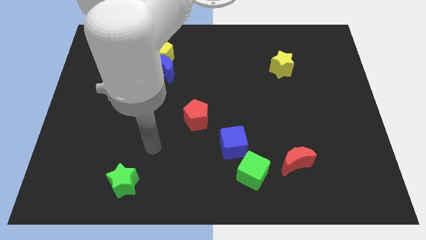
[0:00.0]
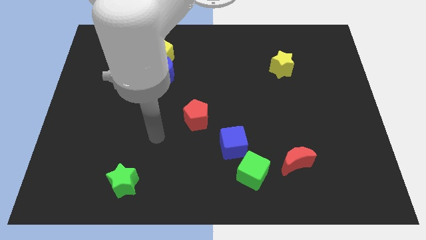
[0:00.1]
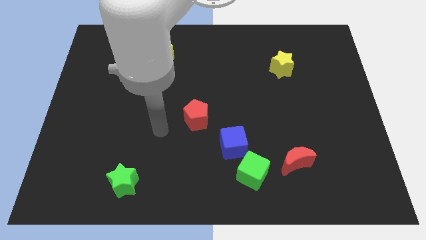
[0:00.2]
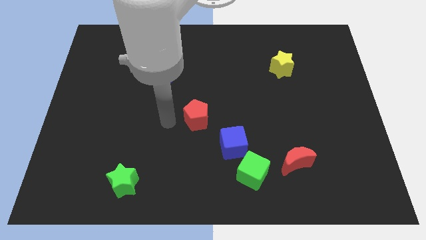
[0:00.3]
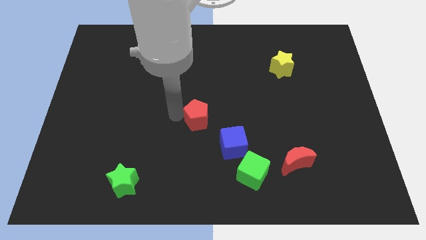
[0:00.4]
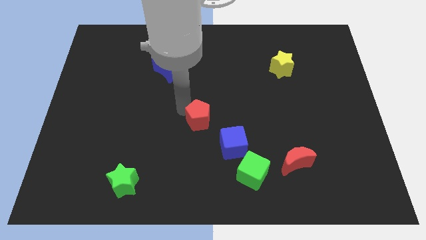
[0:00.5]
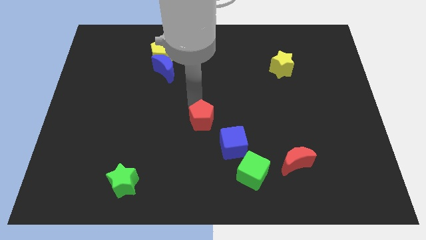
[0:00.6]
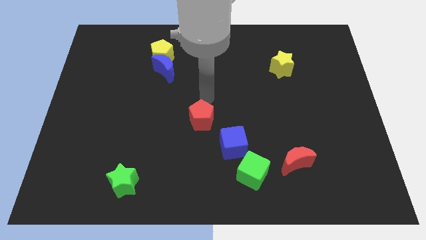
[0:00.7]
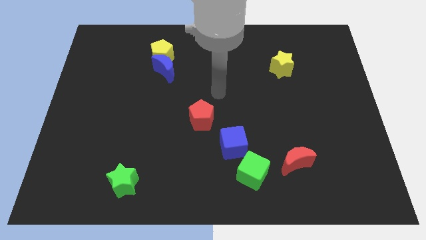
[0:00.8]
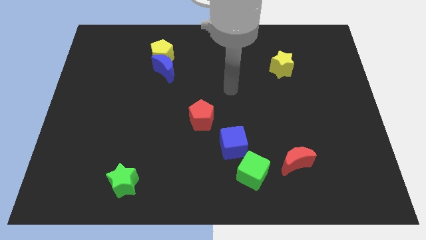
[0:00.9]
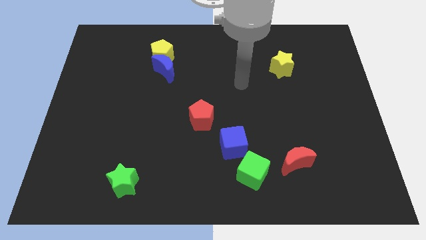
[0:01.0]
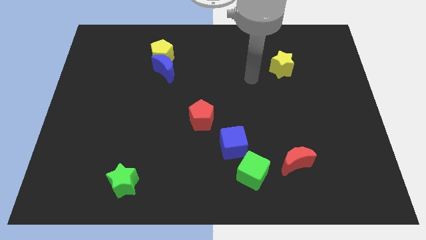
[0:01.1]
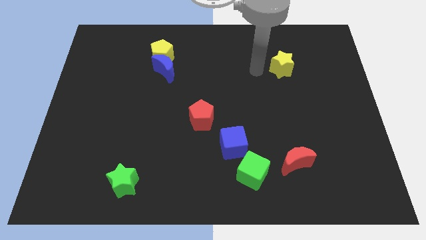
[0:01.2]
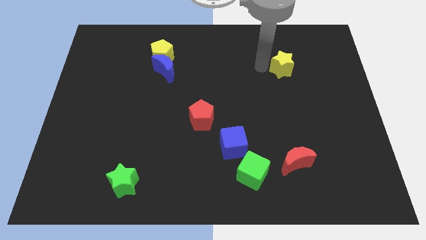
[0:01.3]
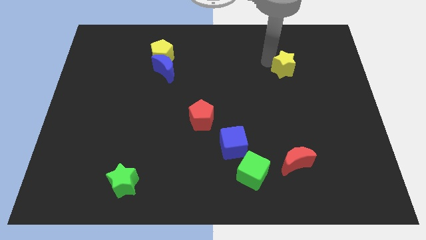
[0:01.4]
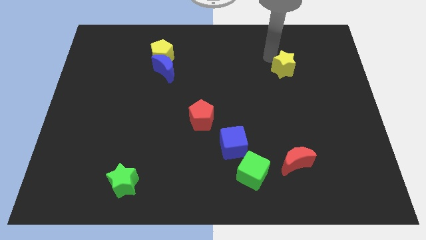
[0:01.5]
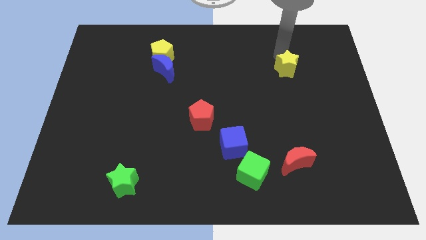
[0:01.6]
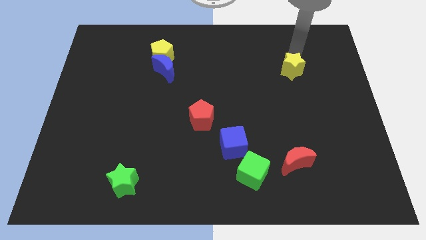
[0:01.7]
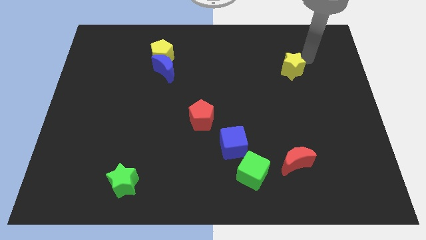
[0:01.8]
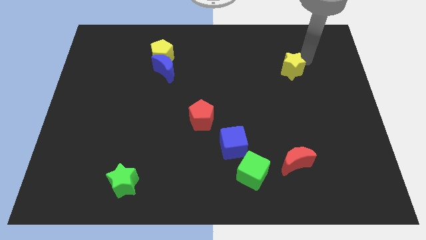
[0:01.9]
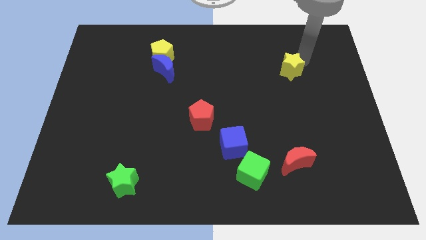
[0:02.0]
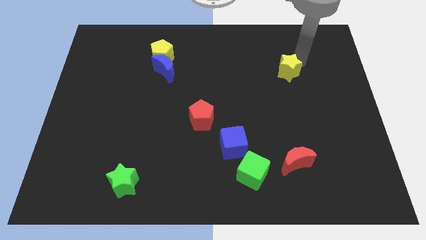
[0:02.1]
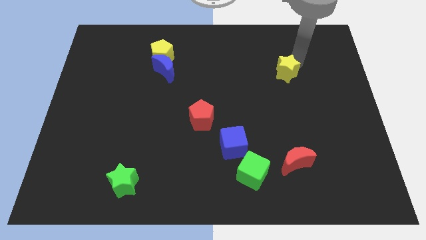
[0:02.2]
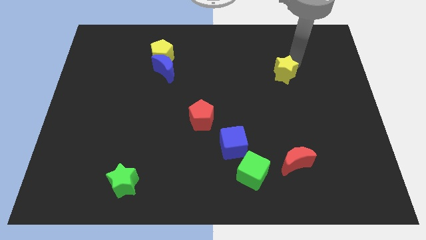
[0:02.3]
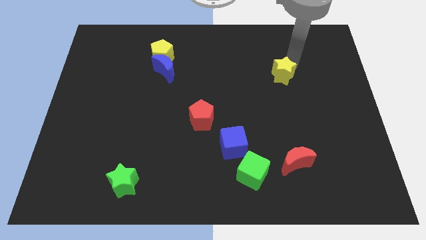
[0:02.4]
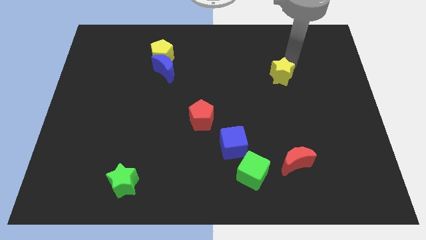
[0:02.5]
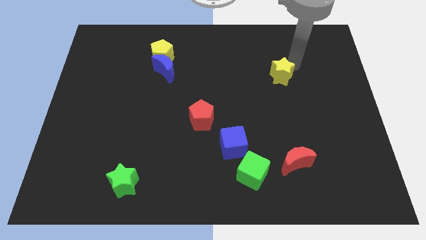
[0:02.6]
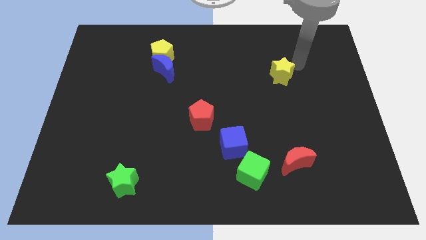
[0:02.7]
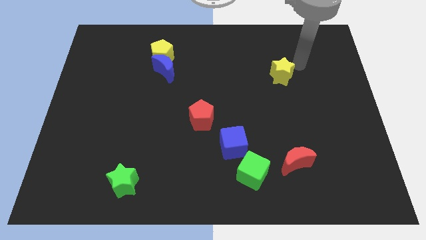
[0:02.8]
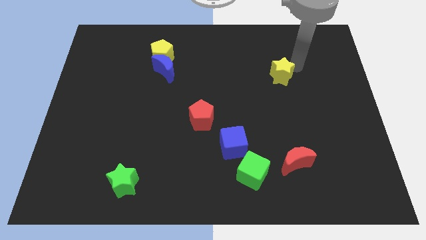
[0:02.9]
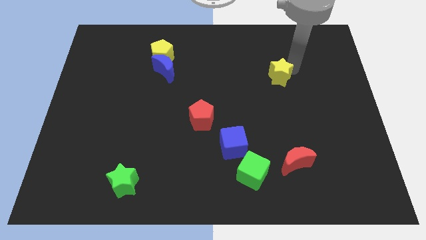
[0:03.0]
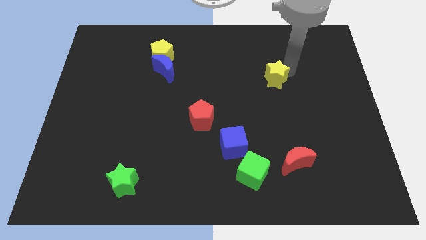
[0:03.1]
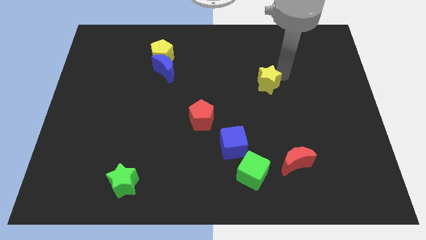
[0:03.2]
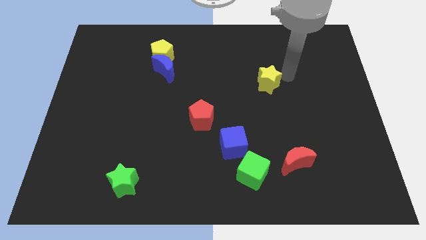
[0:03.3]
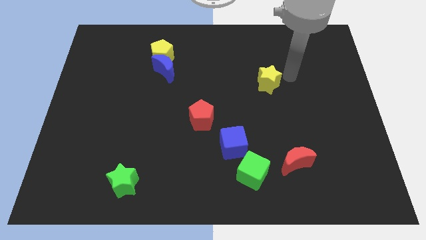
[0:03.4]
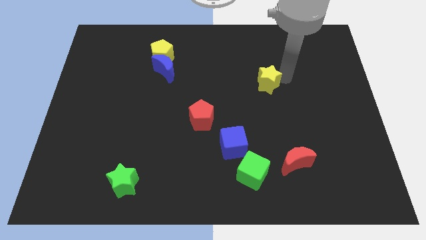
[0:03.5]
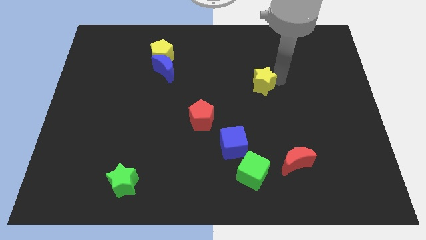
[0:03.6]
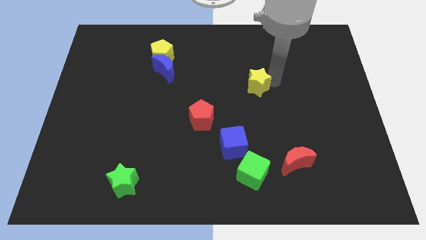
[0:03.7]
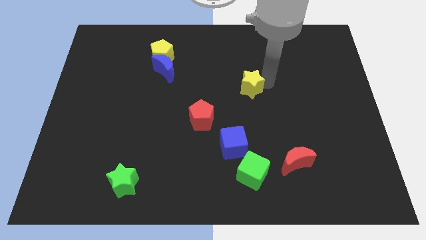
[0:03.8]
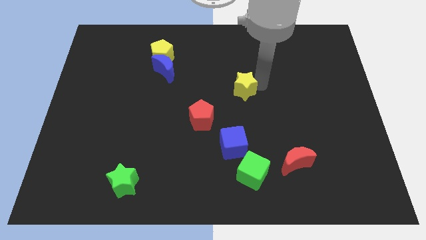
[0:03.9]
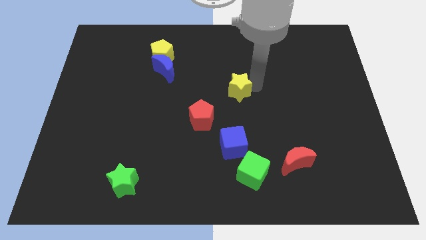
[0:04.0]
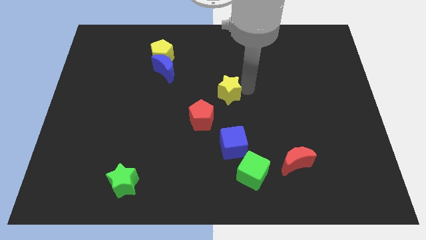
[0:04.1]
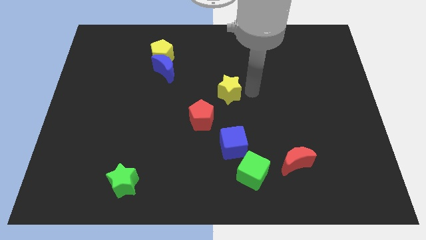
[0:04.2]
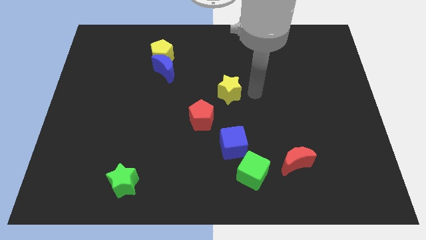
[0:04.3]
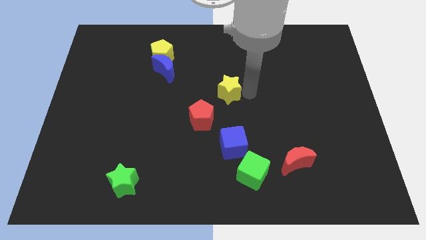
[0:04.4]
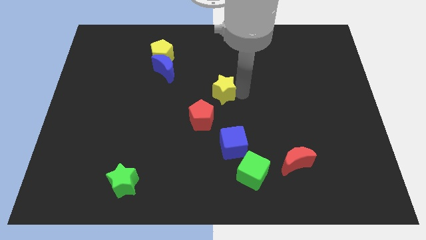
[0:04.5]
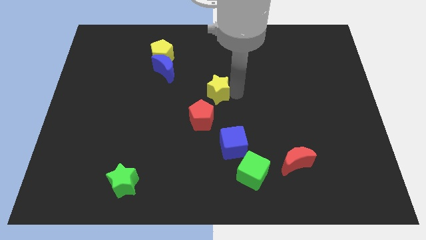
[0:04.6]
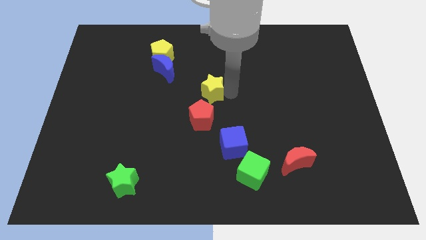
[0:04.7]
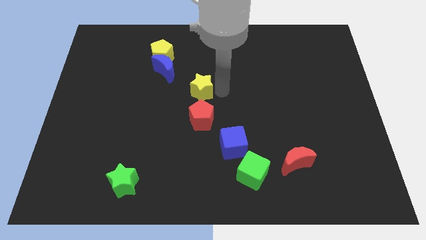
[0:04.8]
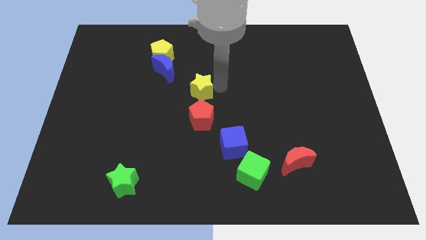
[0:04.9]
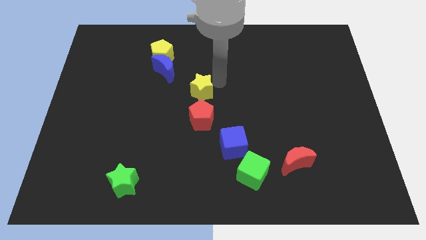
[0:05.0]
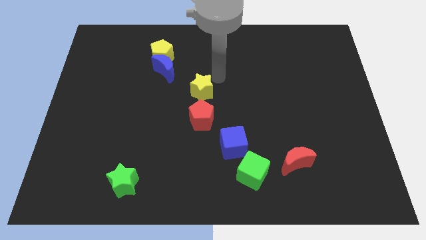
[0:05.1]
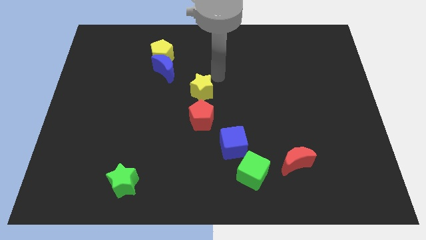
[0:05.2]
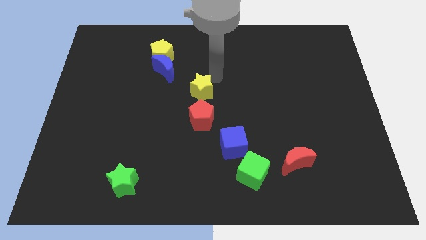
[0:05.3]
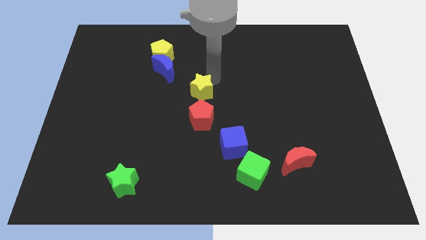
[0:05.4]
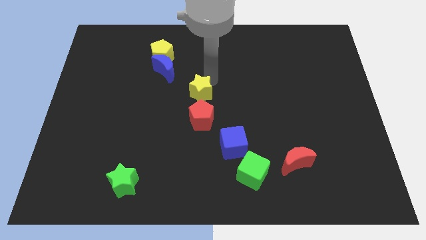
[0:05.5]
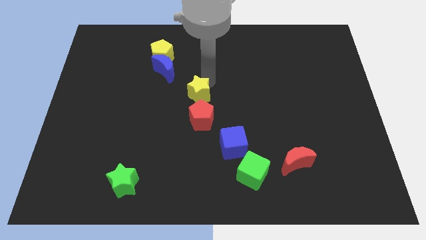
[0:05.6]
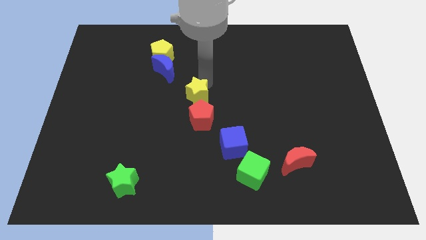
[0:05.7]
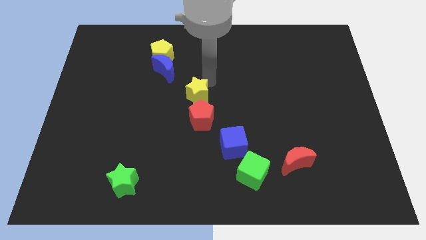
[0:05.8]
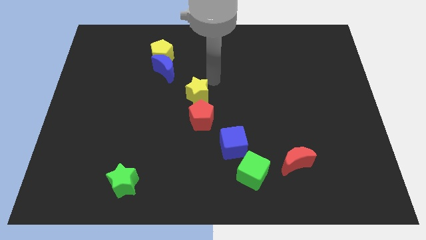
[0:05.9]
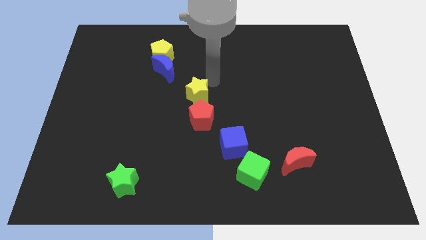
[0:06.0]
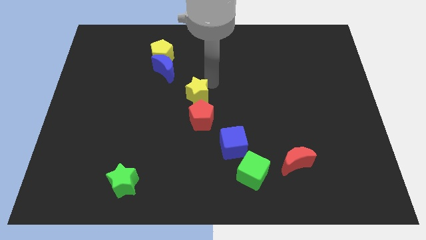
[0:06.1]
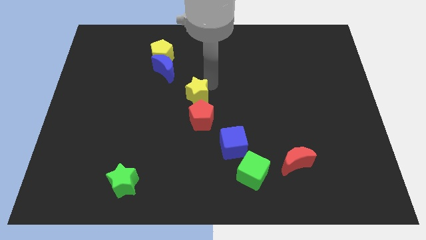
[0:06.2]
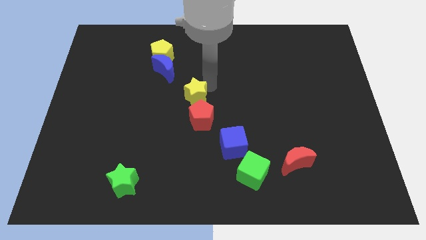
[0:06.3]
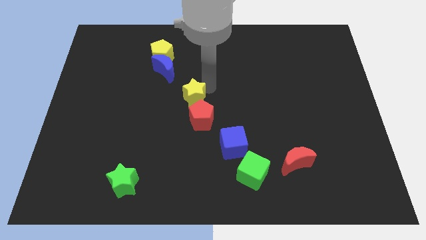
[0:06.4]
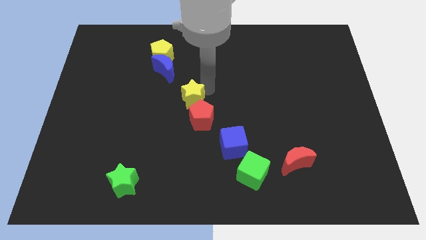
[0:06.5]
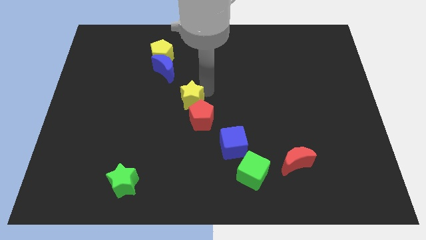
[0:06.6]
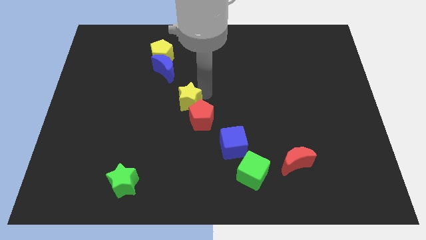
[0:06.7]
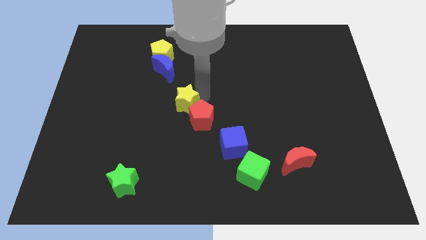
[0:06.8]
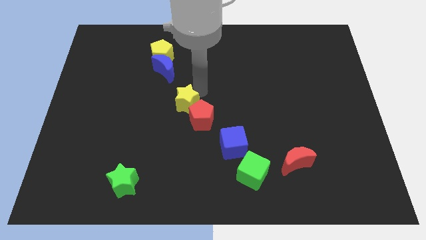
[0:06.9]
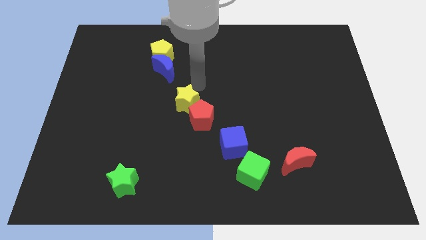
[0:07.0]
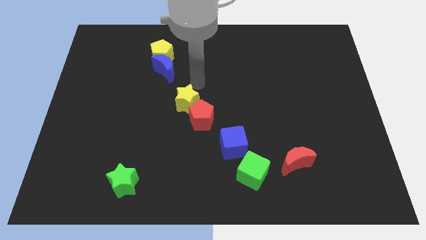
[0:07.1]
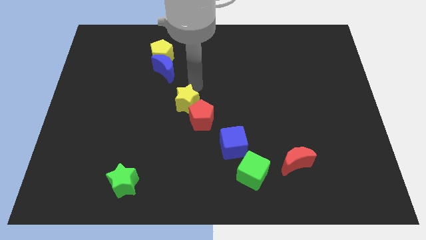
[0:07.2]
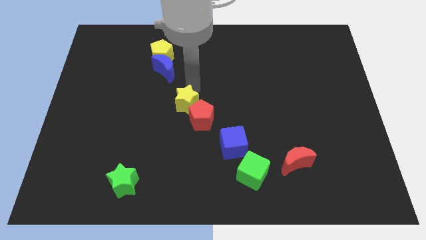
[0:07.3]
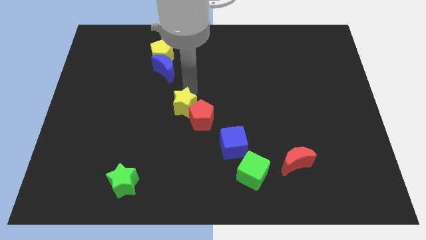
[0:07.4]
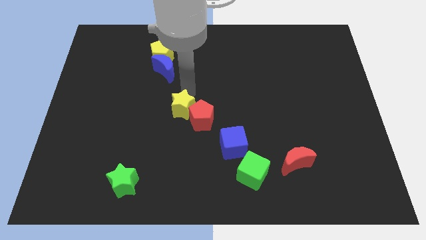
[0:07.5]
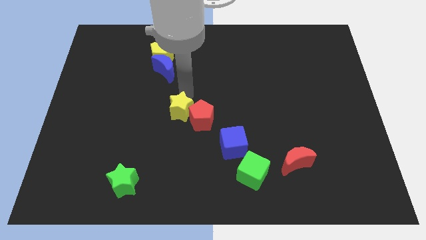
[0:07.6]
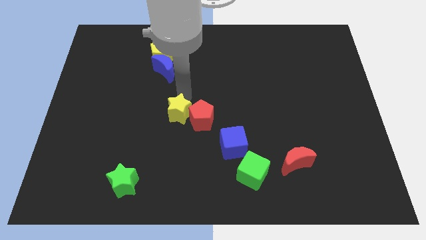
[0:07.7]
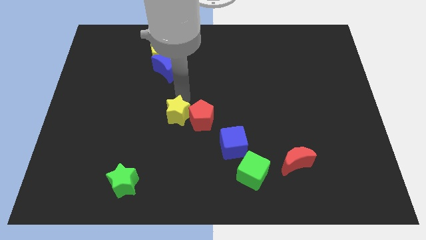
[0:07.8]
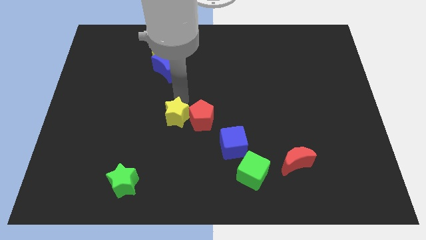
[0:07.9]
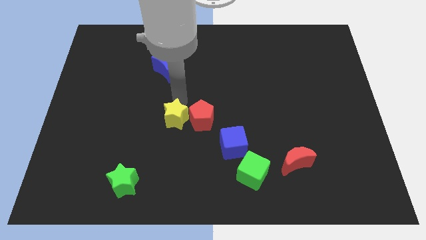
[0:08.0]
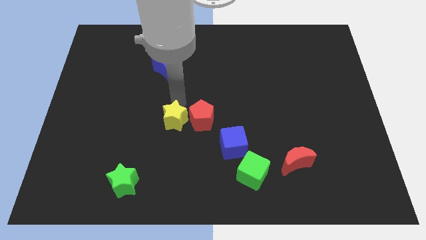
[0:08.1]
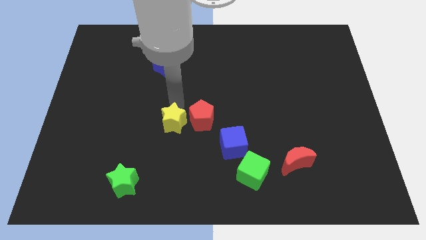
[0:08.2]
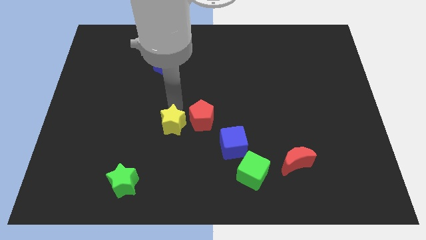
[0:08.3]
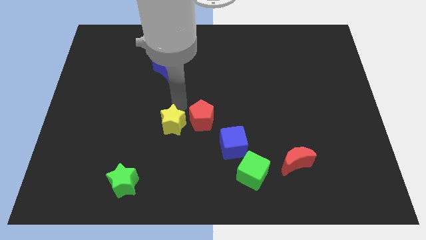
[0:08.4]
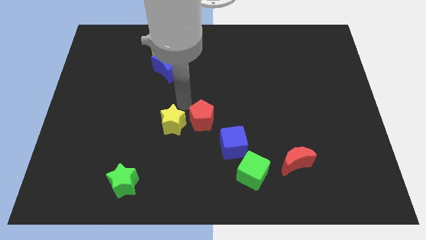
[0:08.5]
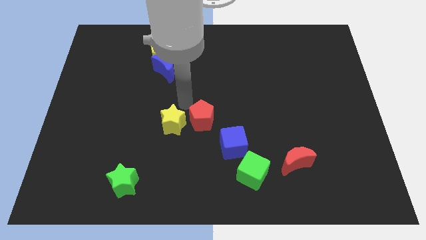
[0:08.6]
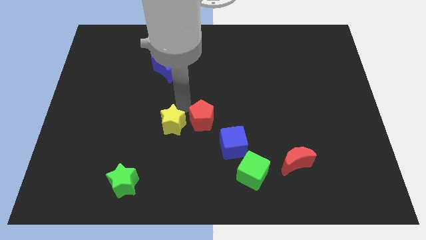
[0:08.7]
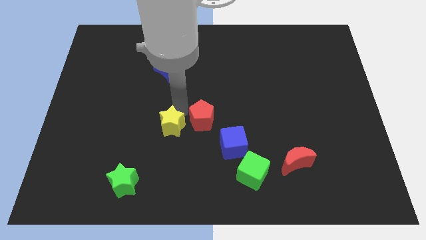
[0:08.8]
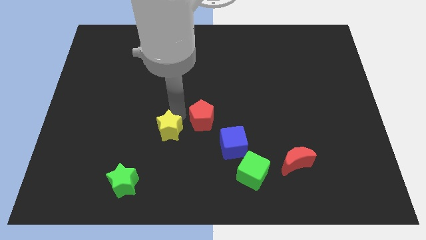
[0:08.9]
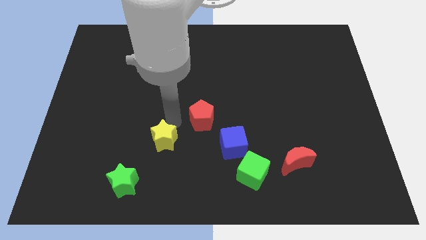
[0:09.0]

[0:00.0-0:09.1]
put the yellow star diagonally up and to the right of the green star
